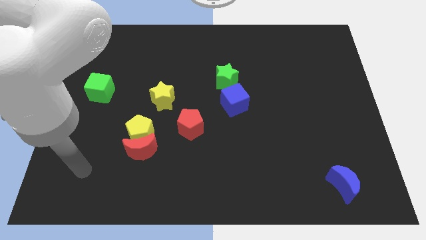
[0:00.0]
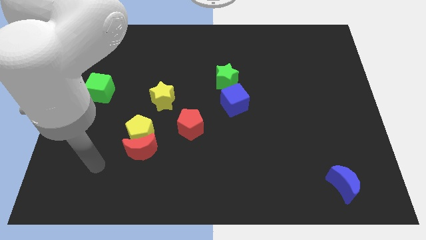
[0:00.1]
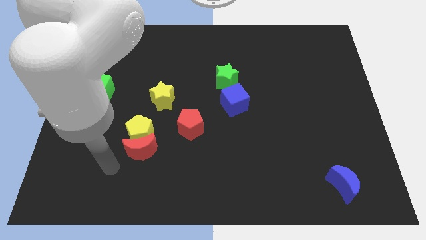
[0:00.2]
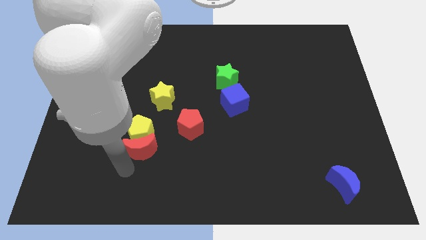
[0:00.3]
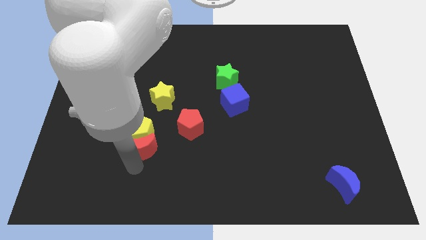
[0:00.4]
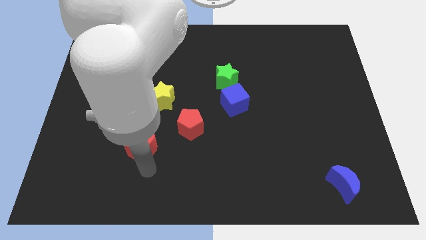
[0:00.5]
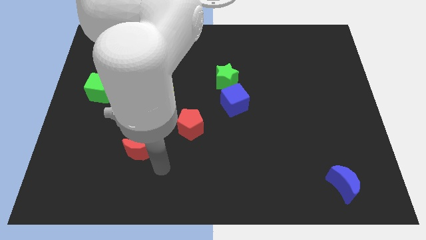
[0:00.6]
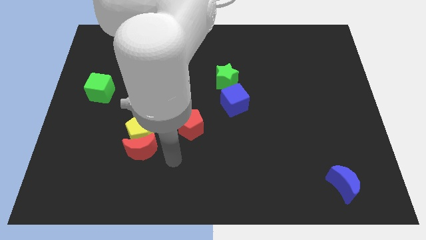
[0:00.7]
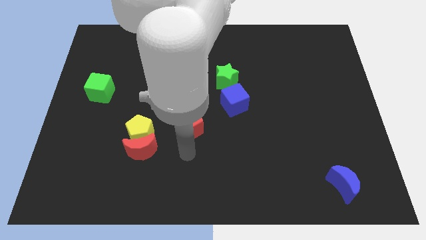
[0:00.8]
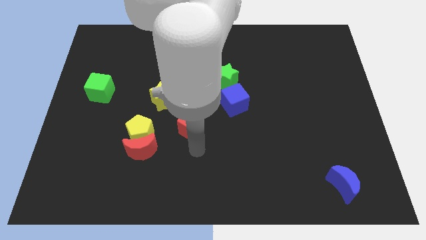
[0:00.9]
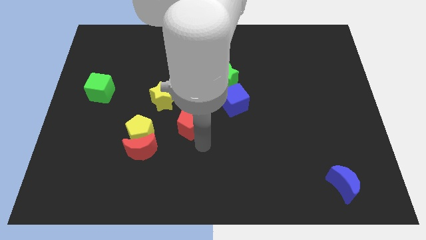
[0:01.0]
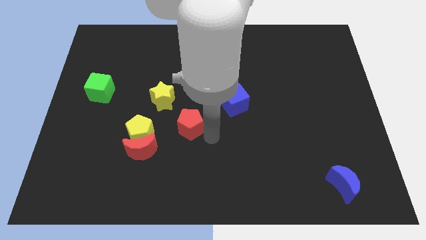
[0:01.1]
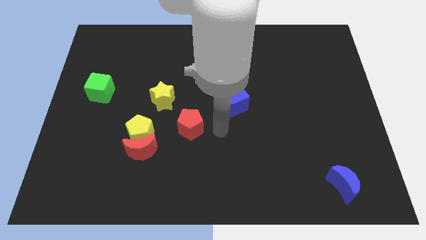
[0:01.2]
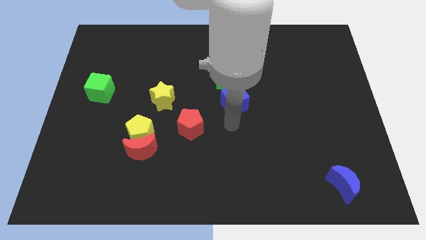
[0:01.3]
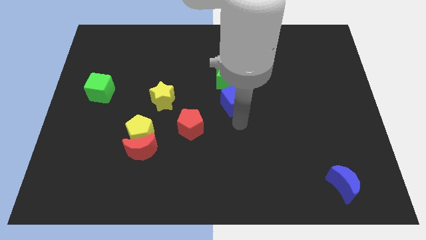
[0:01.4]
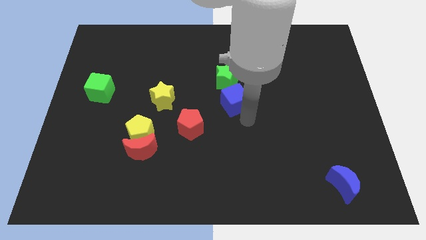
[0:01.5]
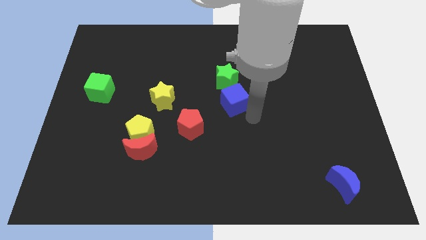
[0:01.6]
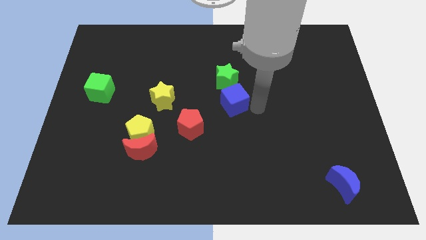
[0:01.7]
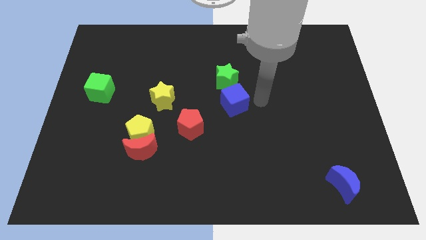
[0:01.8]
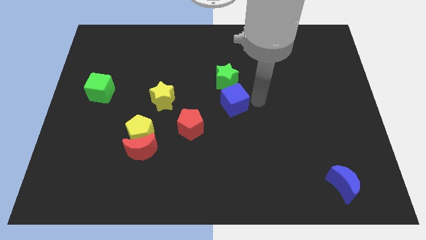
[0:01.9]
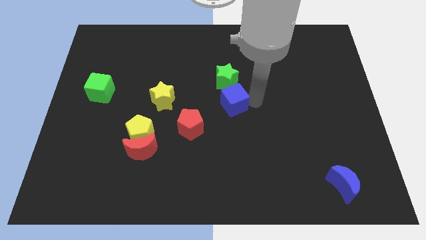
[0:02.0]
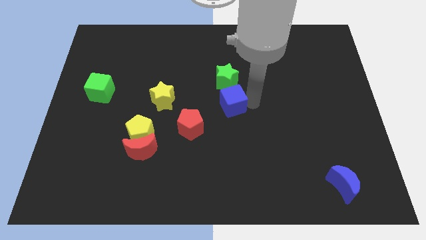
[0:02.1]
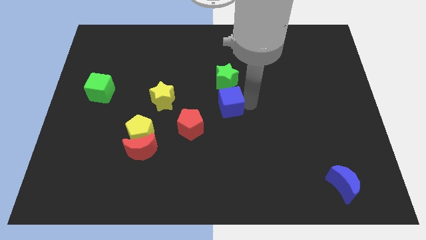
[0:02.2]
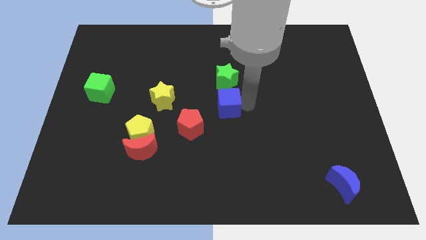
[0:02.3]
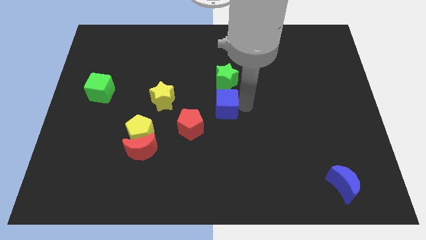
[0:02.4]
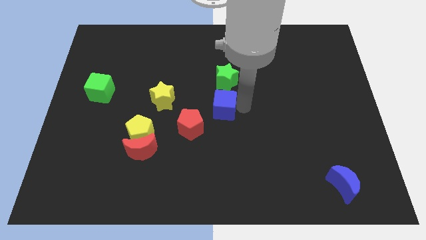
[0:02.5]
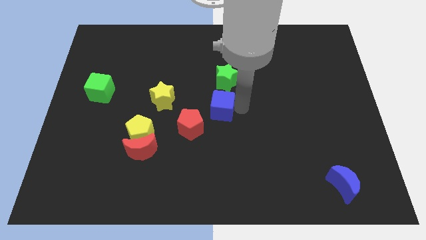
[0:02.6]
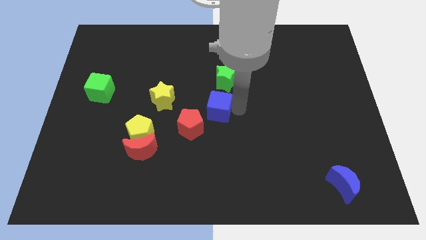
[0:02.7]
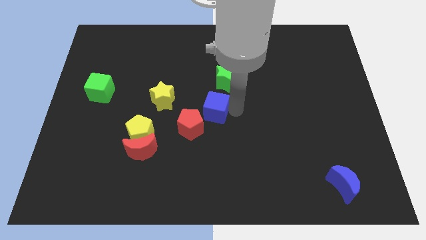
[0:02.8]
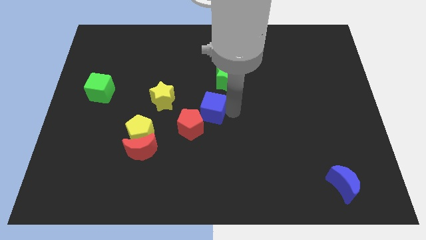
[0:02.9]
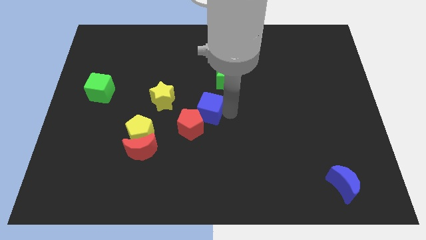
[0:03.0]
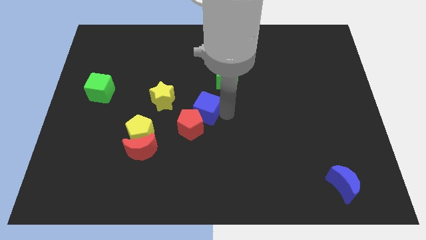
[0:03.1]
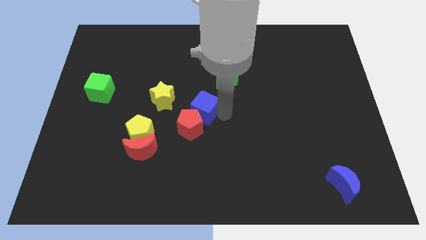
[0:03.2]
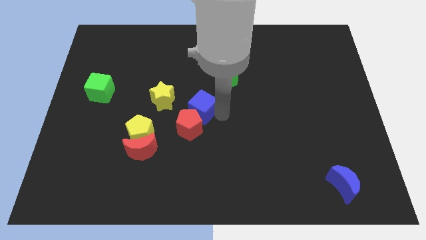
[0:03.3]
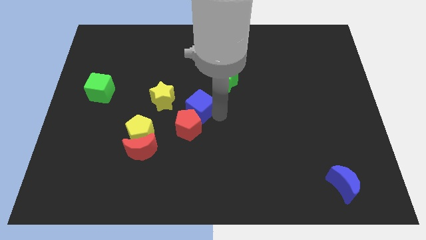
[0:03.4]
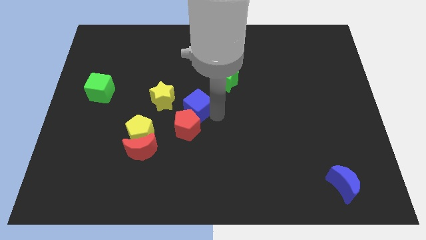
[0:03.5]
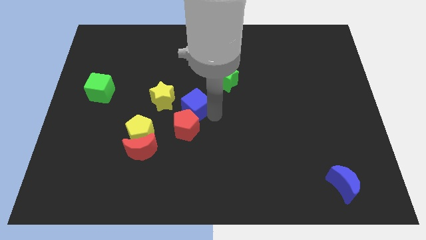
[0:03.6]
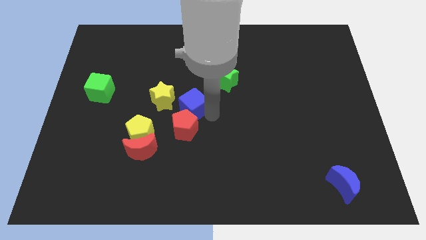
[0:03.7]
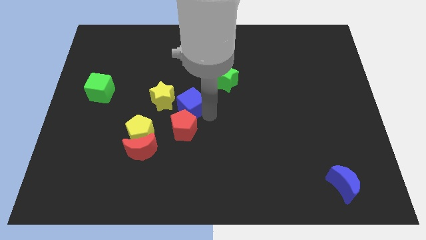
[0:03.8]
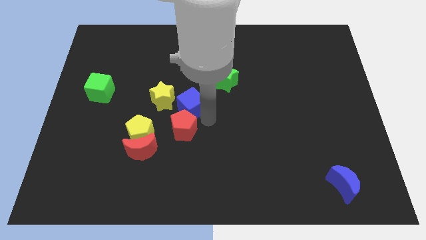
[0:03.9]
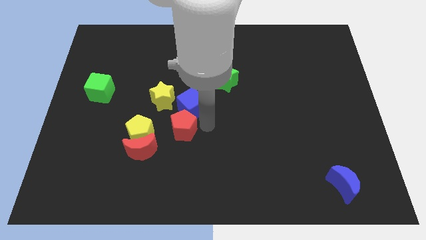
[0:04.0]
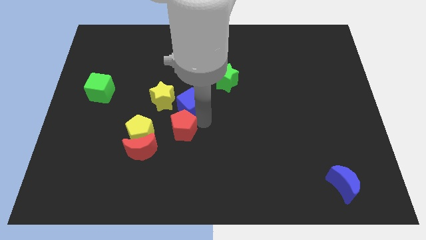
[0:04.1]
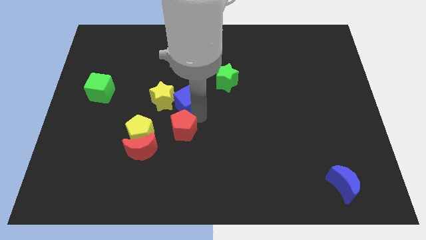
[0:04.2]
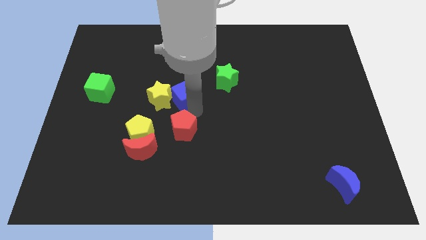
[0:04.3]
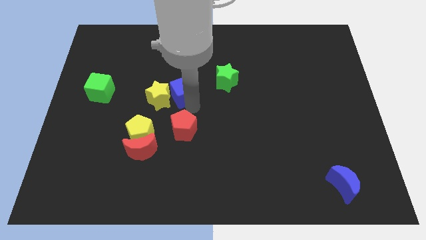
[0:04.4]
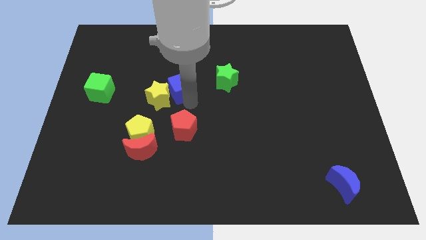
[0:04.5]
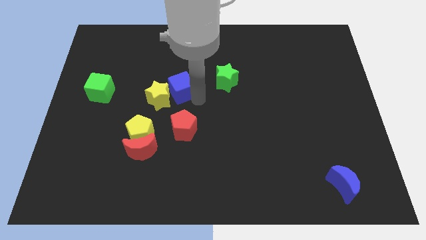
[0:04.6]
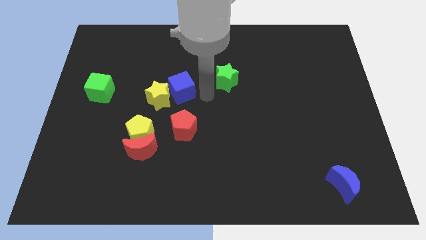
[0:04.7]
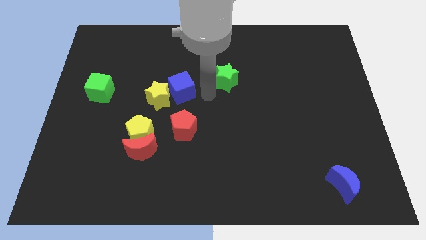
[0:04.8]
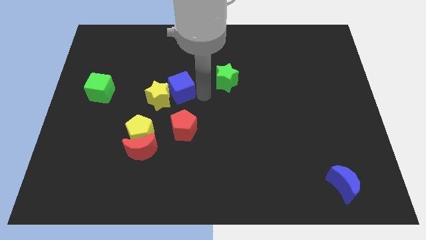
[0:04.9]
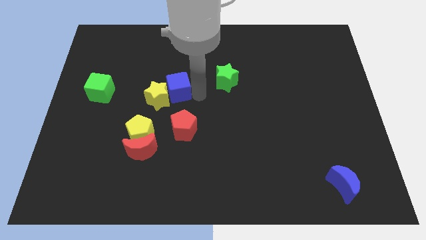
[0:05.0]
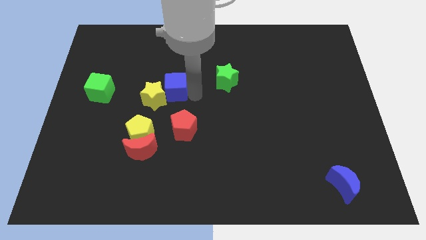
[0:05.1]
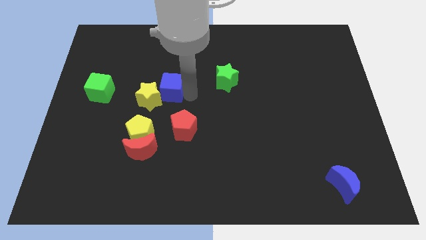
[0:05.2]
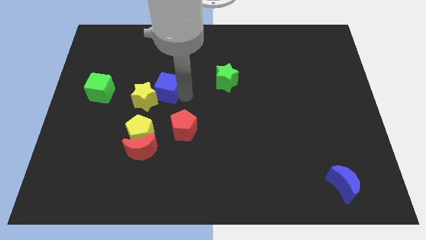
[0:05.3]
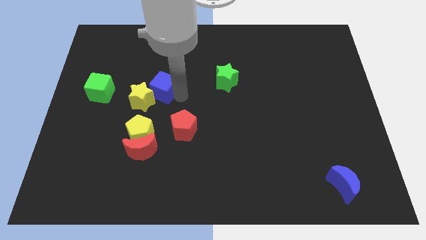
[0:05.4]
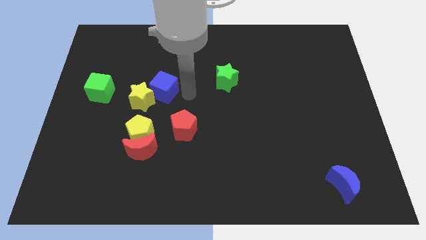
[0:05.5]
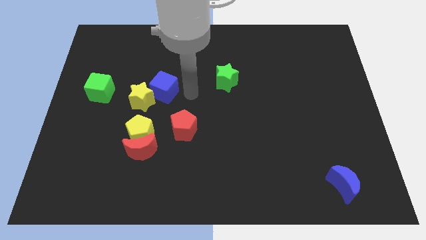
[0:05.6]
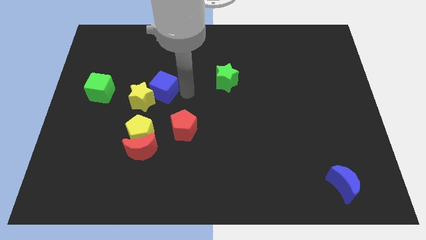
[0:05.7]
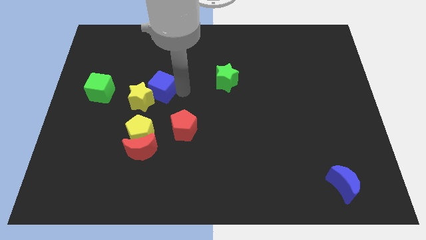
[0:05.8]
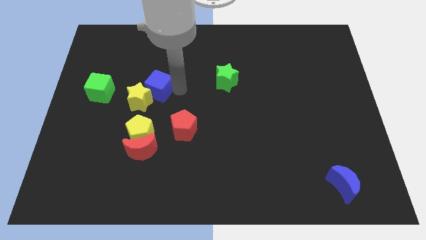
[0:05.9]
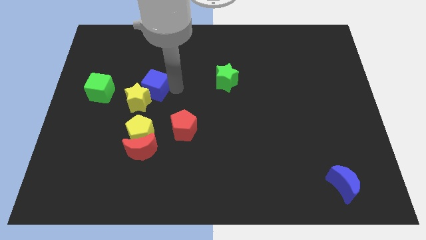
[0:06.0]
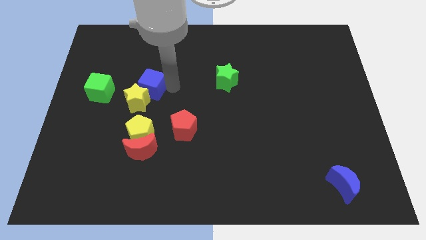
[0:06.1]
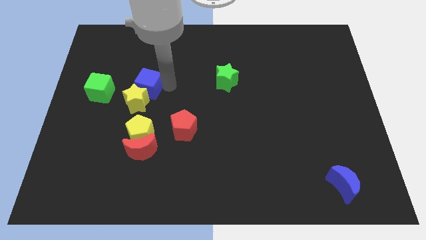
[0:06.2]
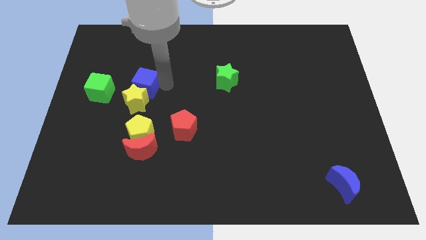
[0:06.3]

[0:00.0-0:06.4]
put the blue cube to the top left of the yellow star
